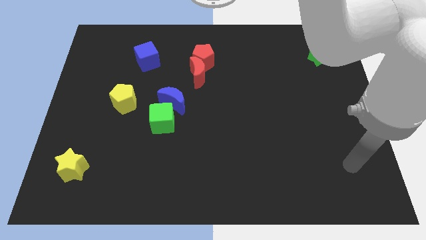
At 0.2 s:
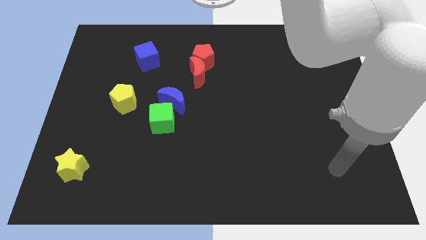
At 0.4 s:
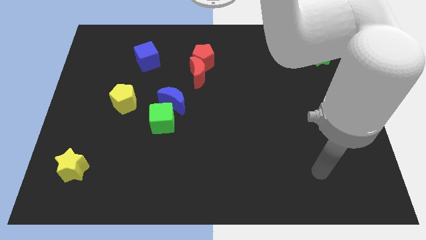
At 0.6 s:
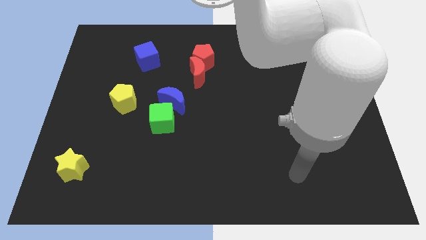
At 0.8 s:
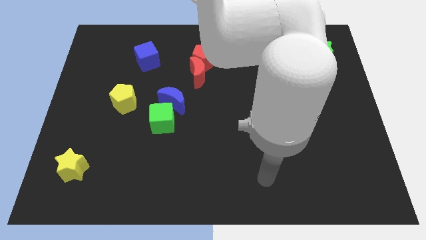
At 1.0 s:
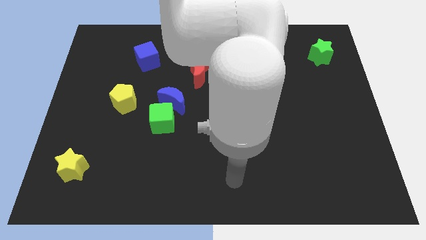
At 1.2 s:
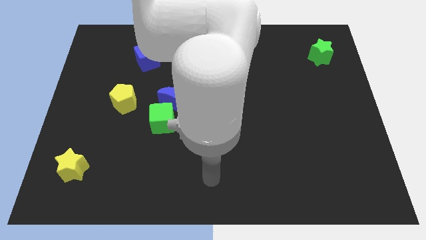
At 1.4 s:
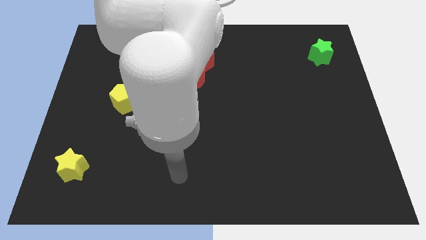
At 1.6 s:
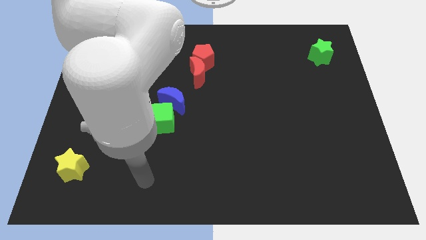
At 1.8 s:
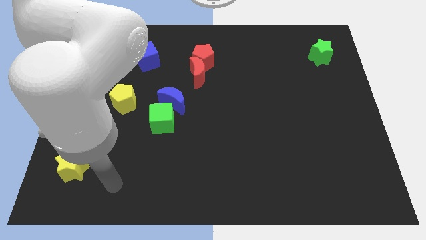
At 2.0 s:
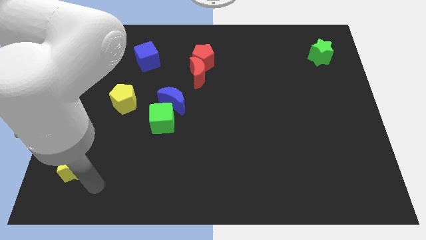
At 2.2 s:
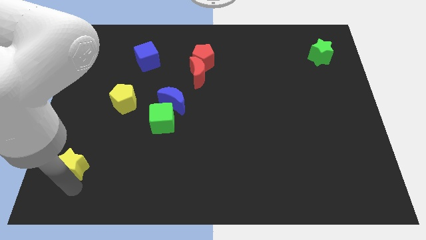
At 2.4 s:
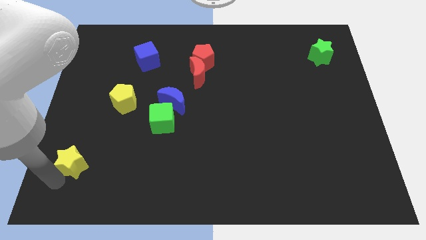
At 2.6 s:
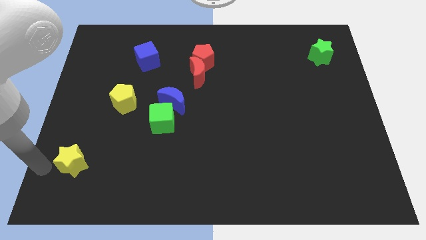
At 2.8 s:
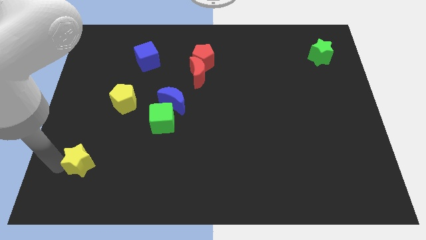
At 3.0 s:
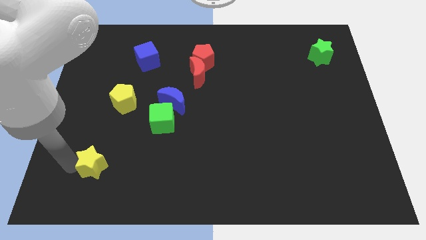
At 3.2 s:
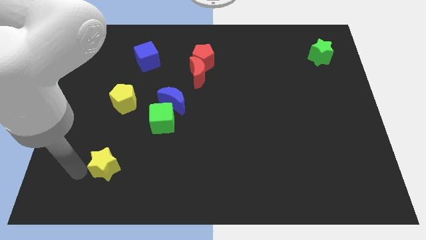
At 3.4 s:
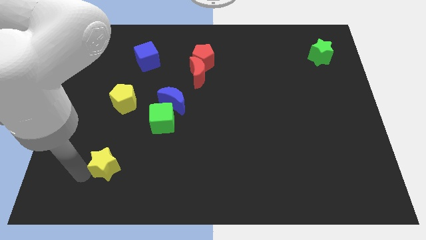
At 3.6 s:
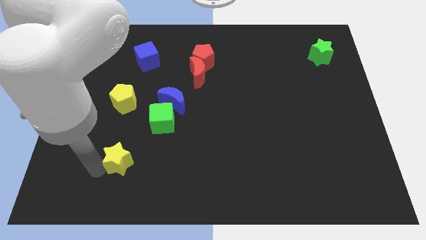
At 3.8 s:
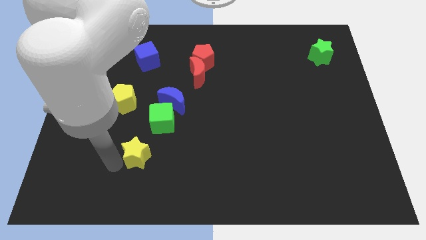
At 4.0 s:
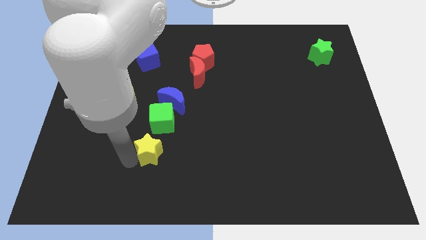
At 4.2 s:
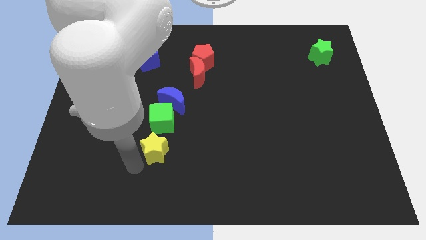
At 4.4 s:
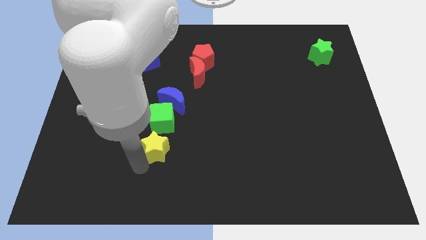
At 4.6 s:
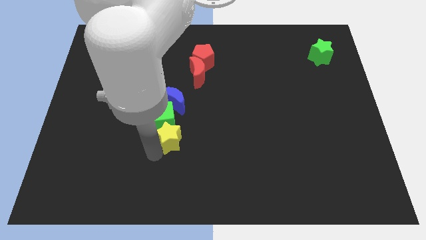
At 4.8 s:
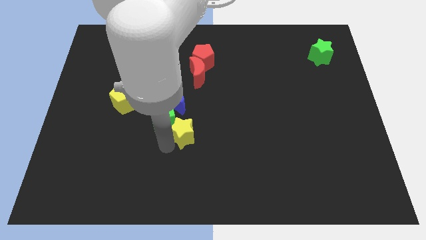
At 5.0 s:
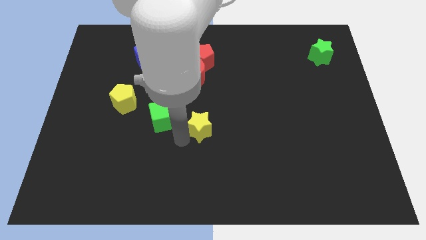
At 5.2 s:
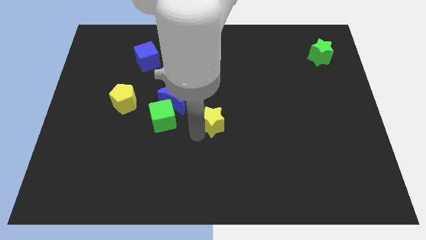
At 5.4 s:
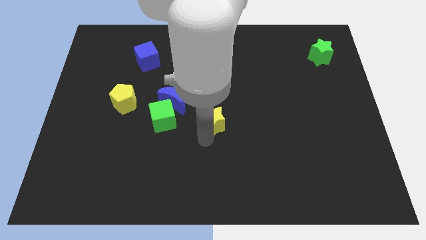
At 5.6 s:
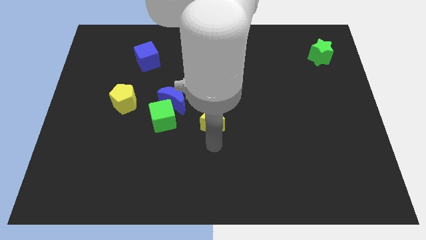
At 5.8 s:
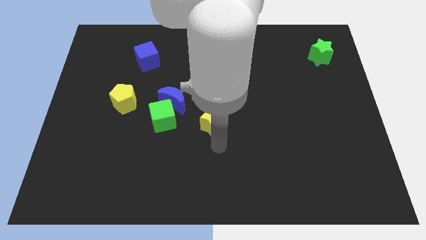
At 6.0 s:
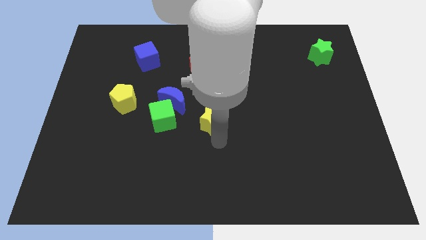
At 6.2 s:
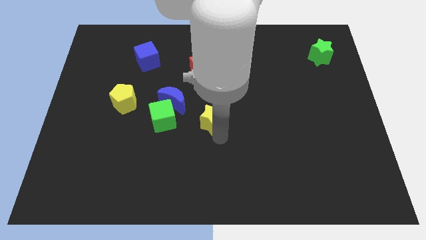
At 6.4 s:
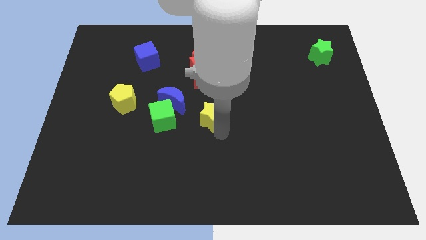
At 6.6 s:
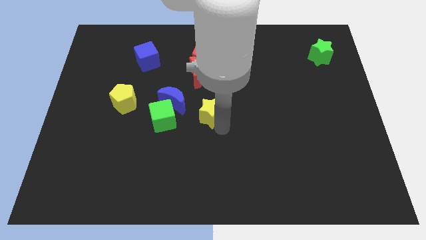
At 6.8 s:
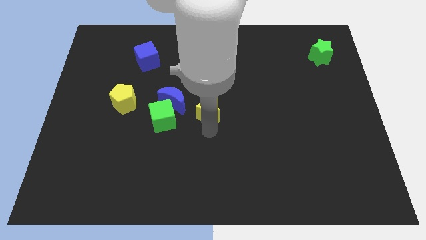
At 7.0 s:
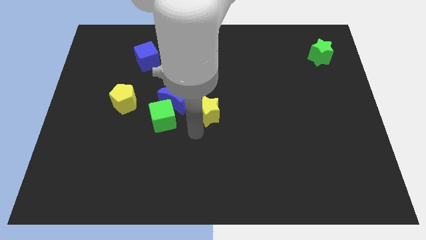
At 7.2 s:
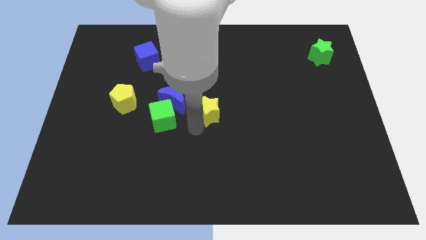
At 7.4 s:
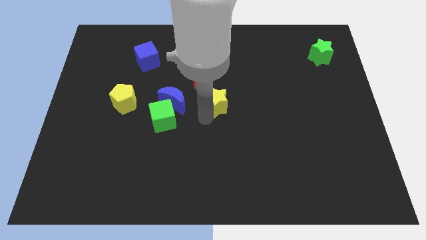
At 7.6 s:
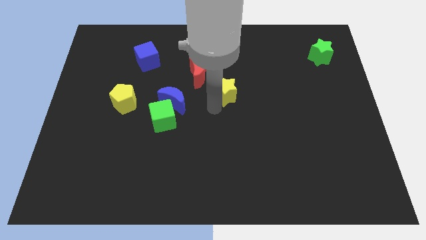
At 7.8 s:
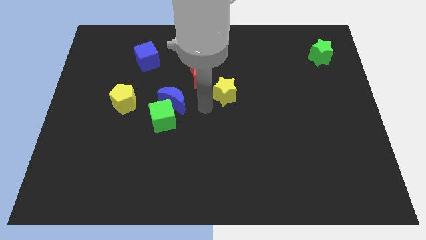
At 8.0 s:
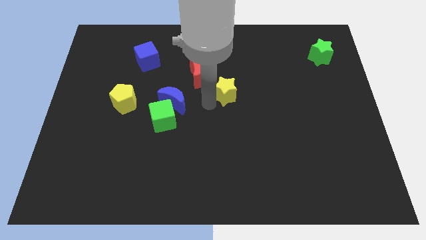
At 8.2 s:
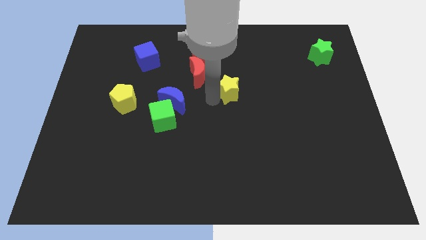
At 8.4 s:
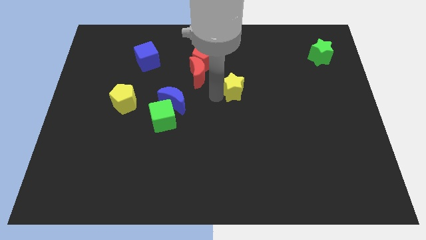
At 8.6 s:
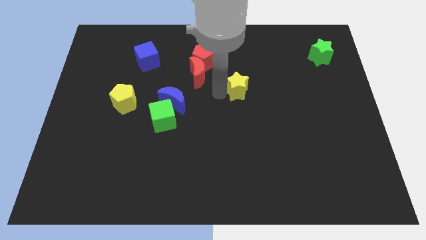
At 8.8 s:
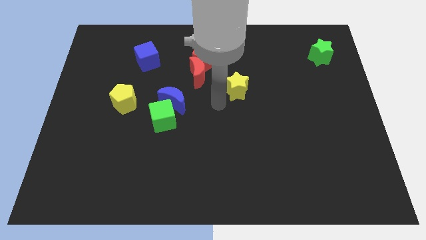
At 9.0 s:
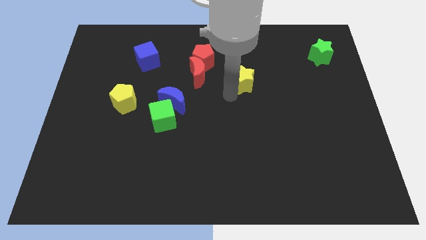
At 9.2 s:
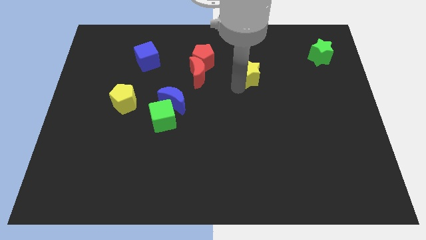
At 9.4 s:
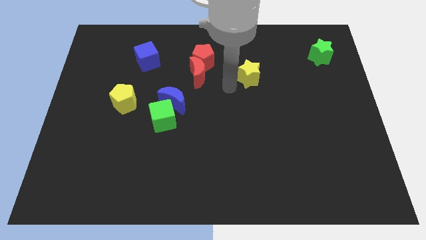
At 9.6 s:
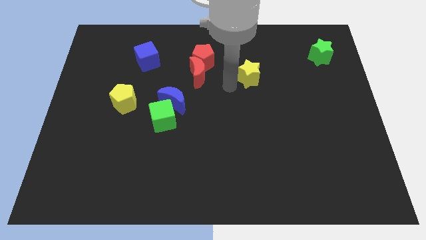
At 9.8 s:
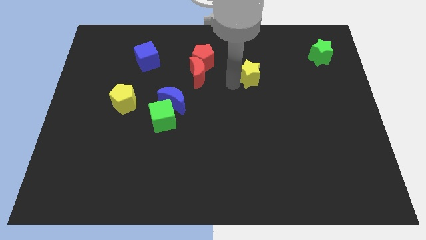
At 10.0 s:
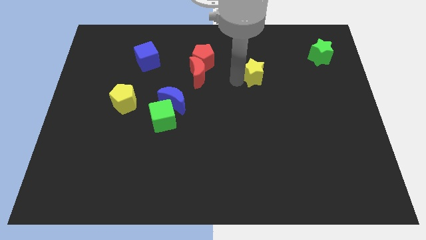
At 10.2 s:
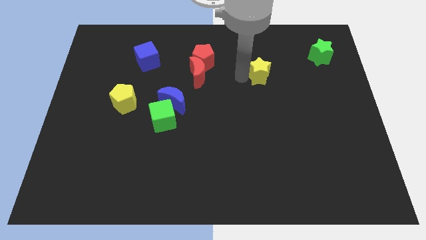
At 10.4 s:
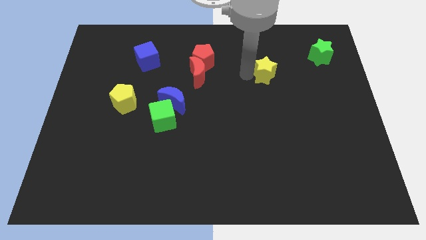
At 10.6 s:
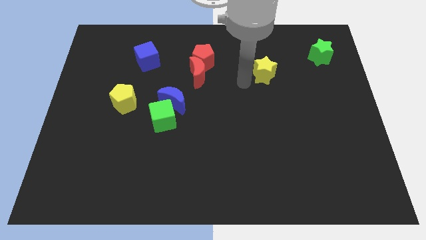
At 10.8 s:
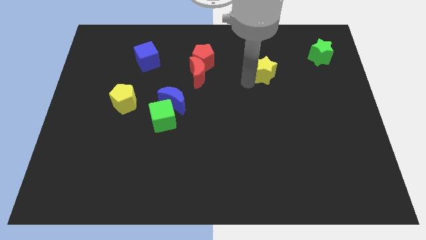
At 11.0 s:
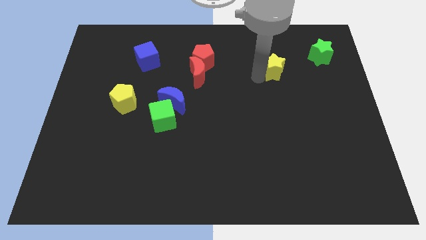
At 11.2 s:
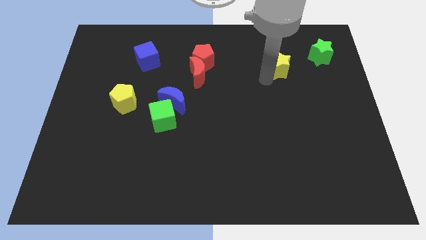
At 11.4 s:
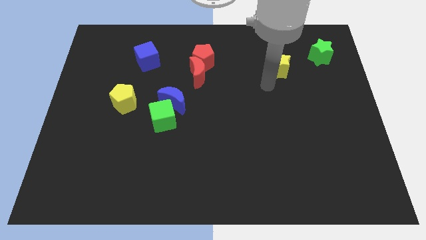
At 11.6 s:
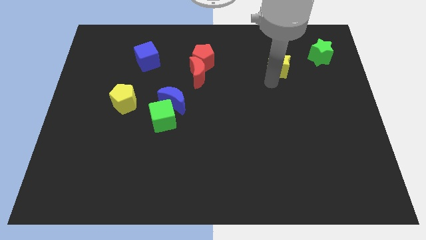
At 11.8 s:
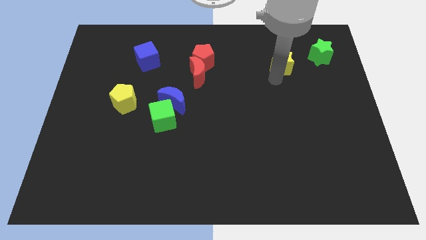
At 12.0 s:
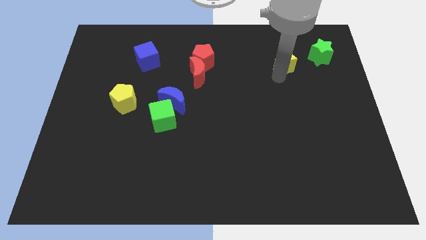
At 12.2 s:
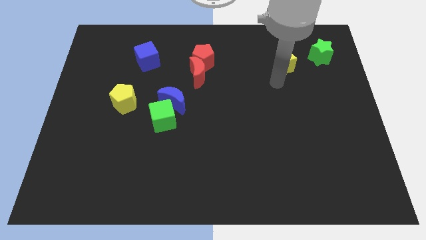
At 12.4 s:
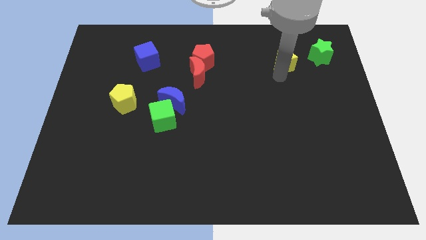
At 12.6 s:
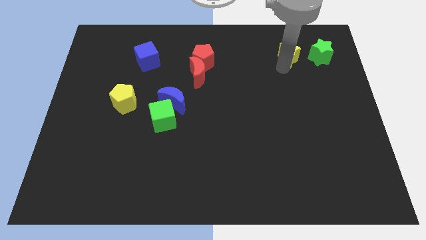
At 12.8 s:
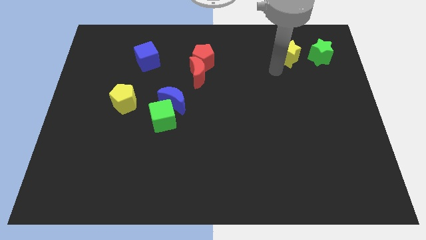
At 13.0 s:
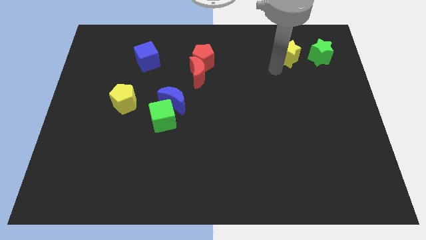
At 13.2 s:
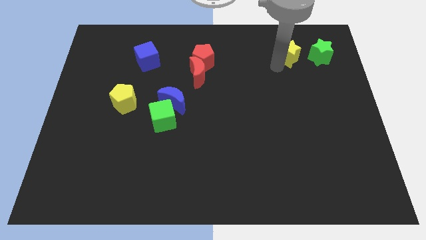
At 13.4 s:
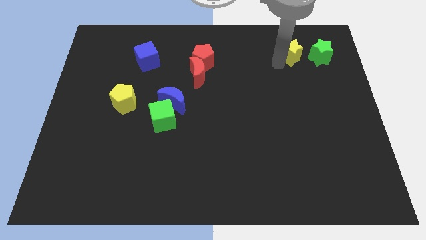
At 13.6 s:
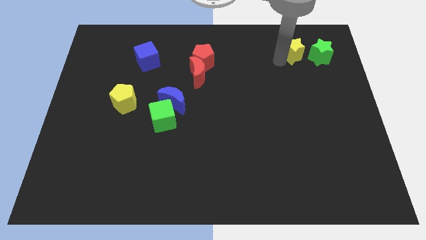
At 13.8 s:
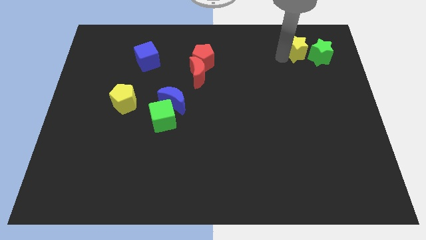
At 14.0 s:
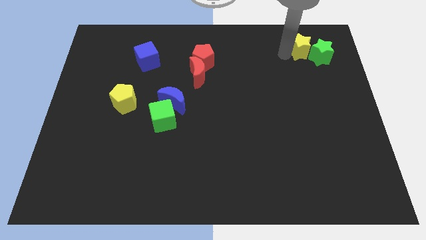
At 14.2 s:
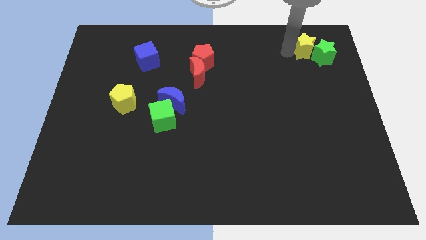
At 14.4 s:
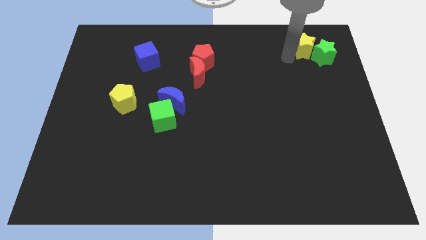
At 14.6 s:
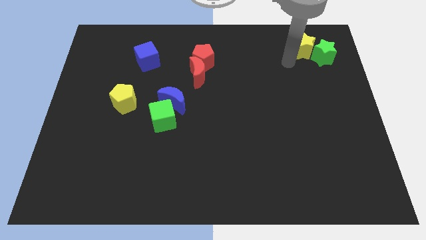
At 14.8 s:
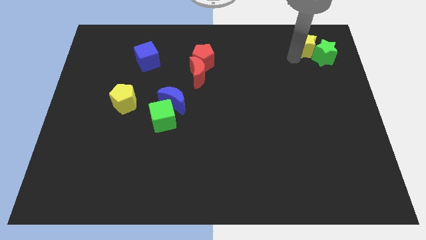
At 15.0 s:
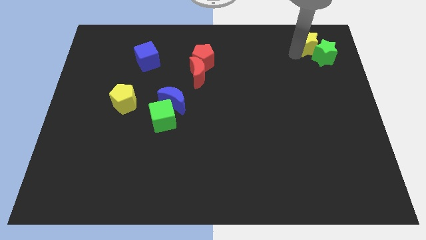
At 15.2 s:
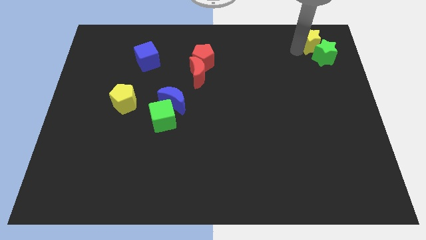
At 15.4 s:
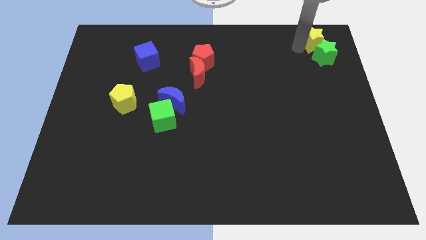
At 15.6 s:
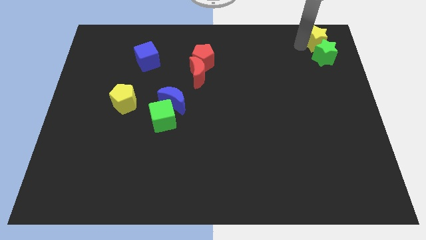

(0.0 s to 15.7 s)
push the yellow star to the top right of the board
